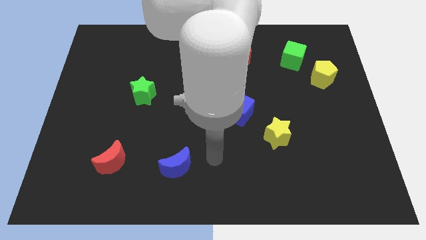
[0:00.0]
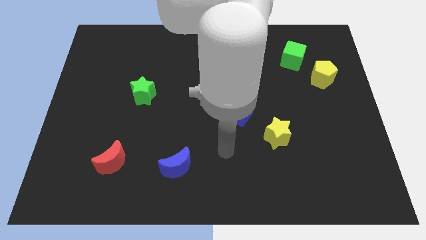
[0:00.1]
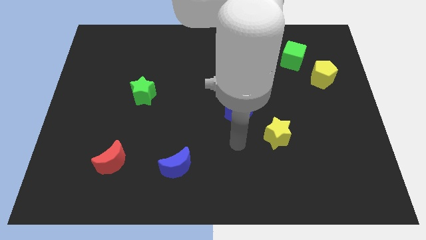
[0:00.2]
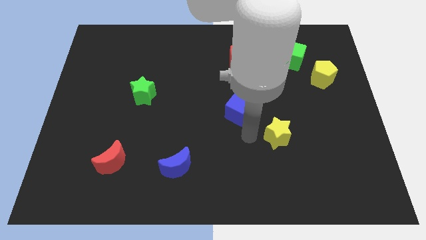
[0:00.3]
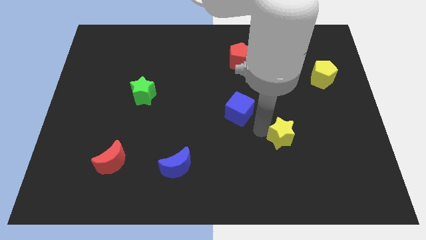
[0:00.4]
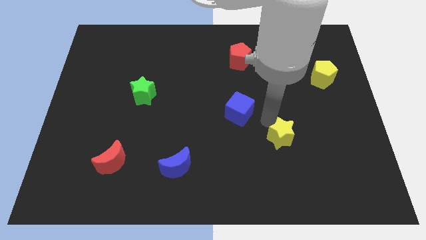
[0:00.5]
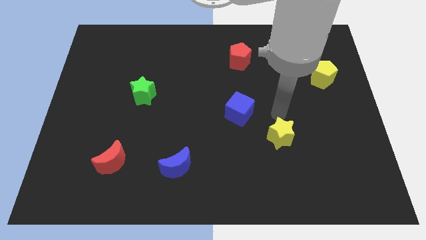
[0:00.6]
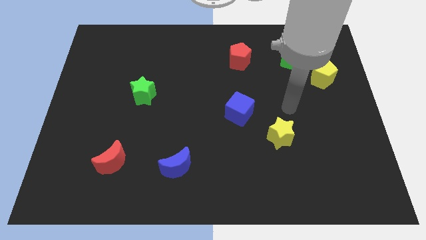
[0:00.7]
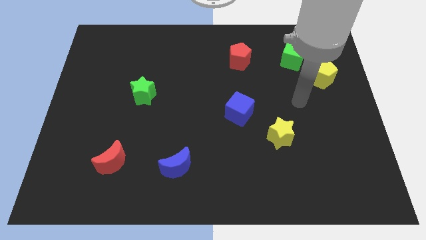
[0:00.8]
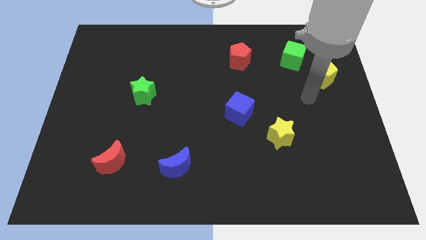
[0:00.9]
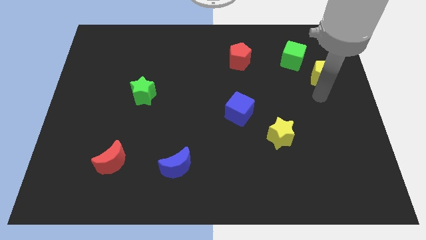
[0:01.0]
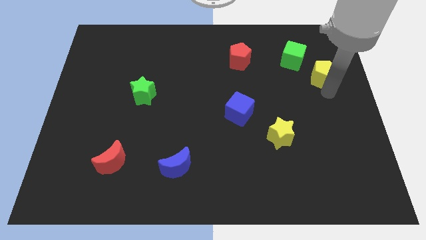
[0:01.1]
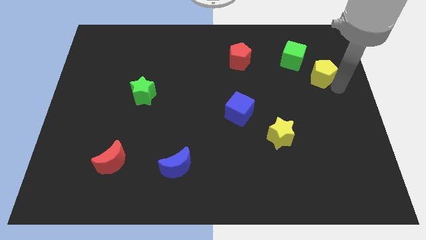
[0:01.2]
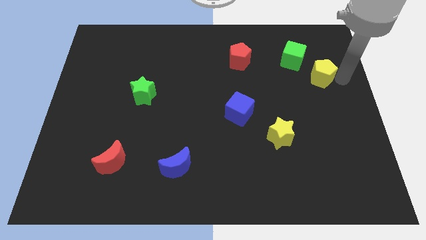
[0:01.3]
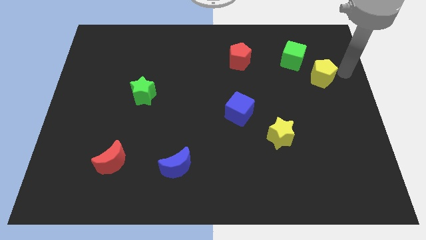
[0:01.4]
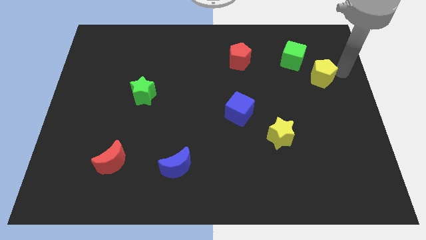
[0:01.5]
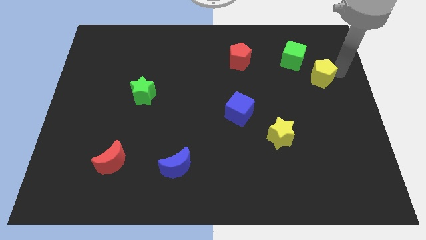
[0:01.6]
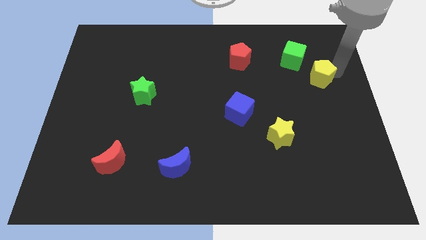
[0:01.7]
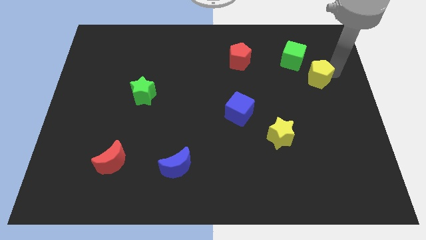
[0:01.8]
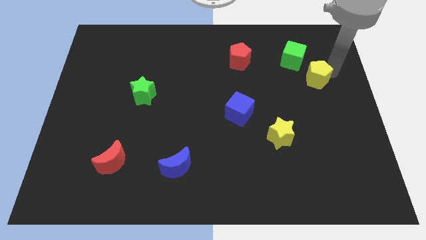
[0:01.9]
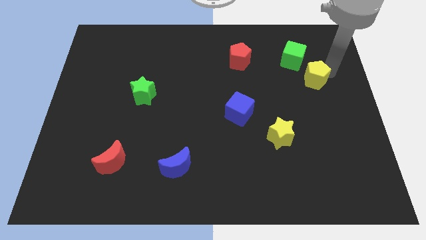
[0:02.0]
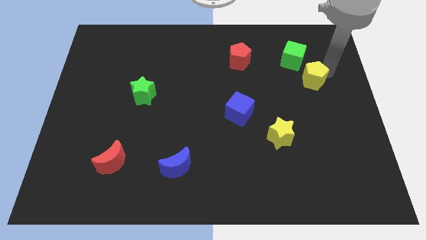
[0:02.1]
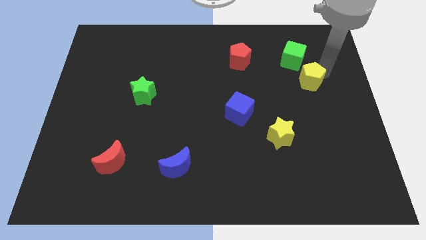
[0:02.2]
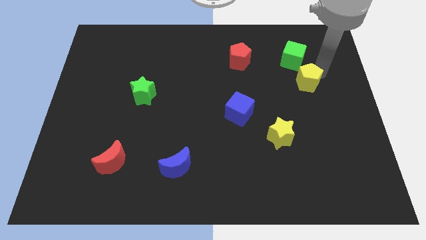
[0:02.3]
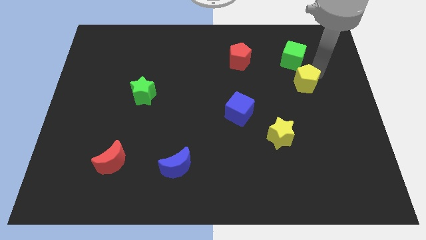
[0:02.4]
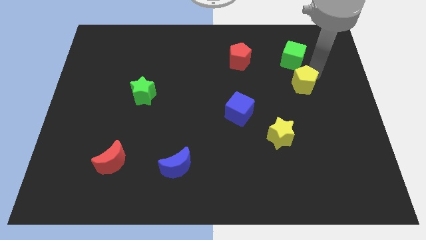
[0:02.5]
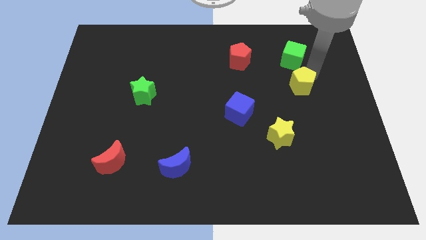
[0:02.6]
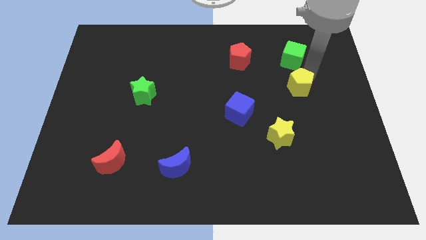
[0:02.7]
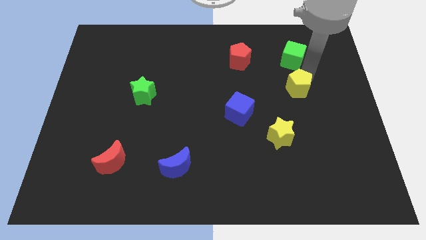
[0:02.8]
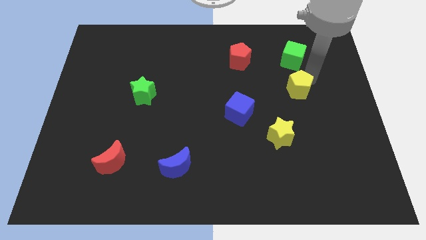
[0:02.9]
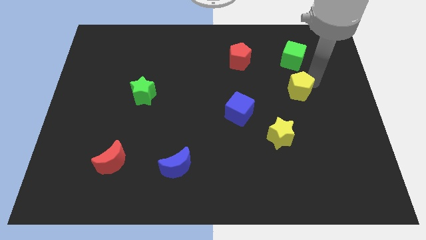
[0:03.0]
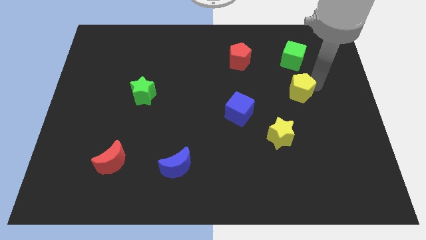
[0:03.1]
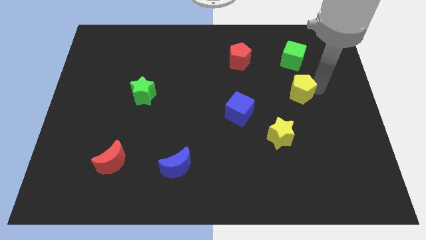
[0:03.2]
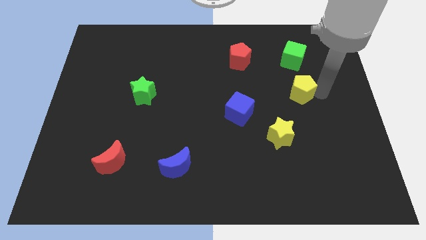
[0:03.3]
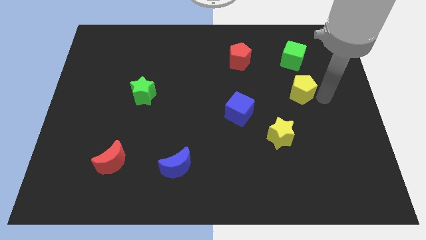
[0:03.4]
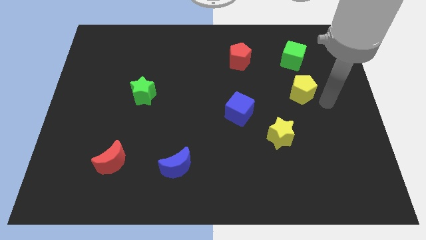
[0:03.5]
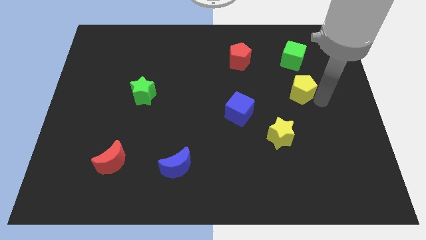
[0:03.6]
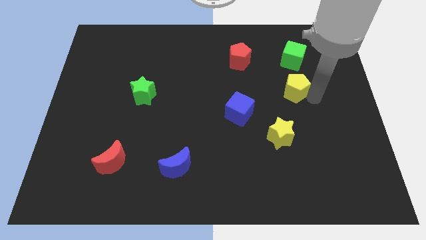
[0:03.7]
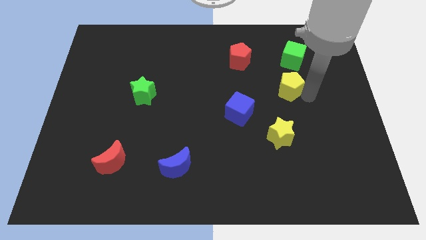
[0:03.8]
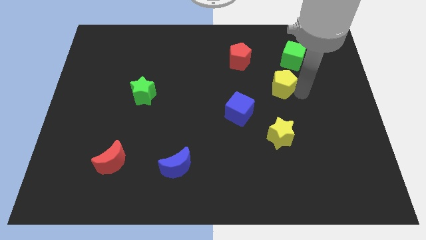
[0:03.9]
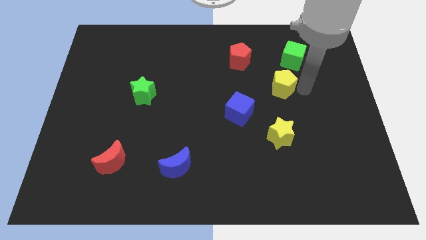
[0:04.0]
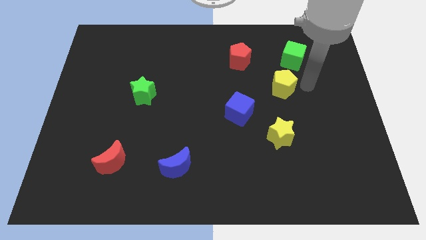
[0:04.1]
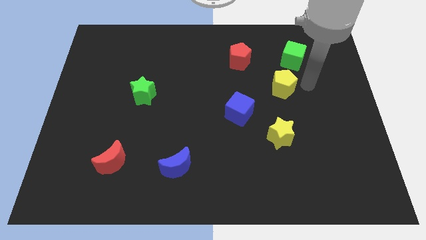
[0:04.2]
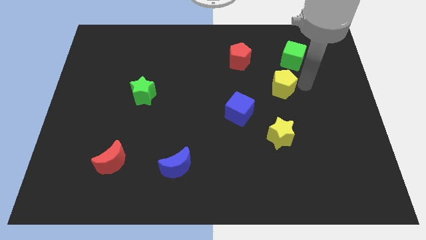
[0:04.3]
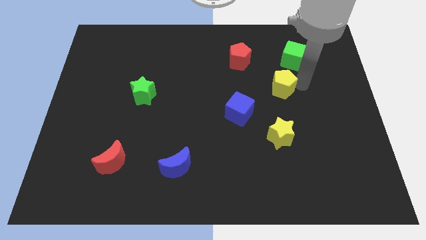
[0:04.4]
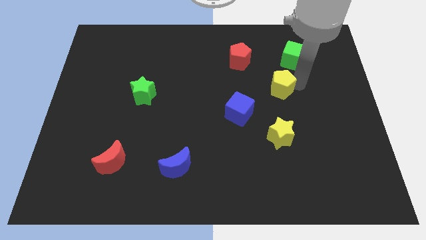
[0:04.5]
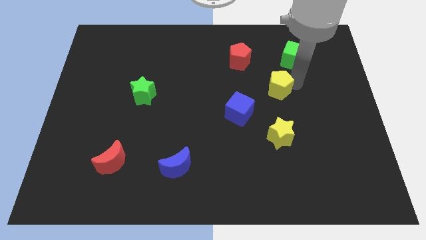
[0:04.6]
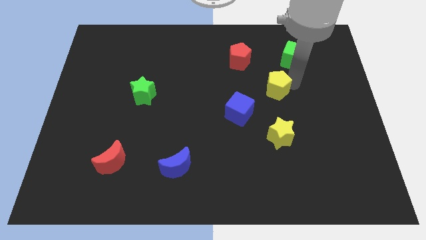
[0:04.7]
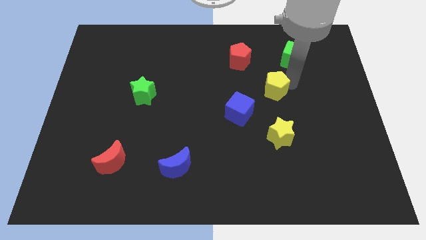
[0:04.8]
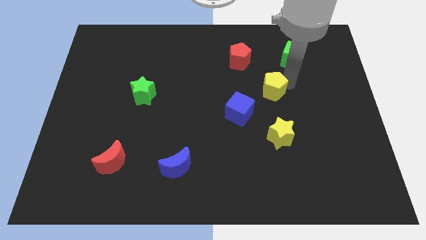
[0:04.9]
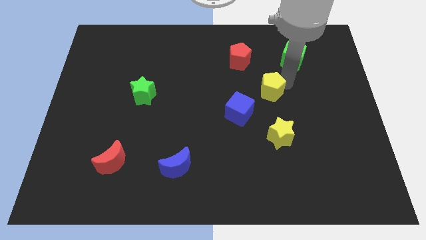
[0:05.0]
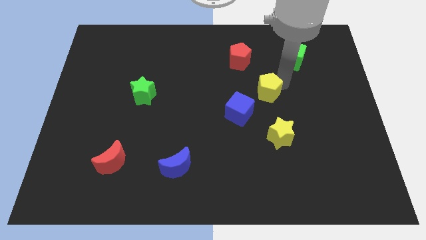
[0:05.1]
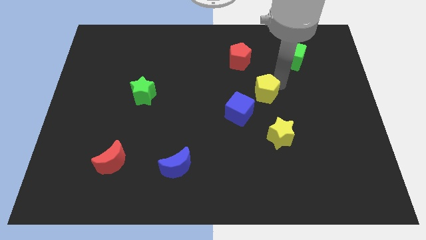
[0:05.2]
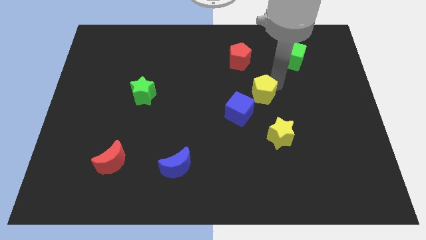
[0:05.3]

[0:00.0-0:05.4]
push the yellow pentagon to the middle
